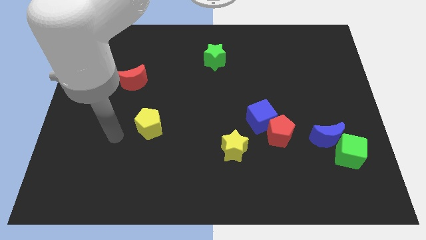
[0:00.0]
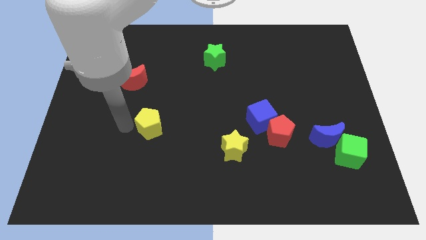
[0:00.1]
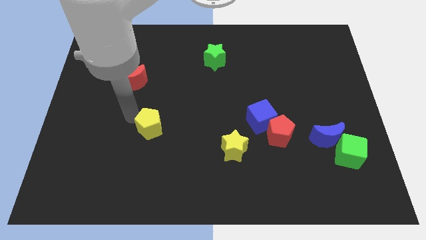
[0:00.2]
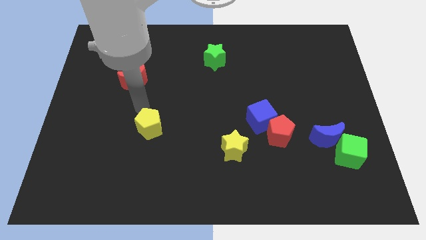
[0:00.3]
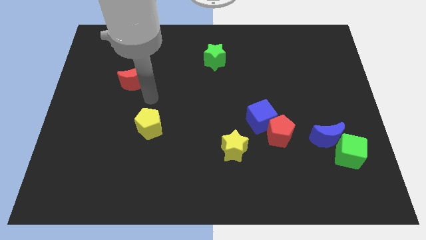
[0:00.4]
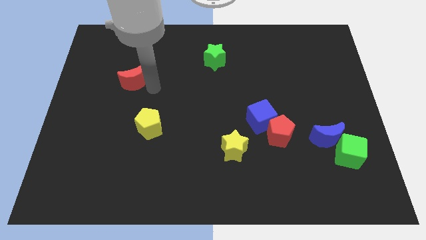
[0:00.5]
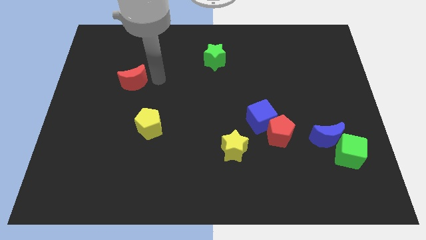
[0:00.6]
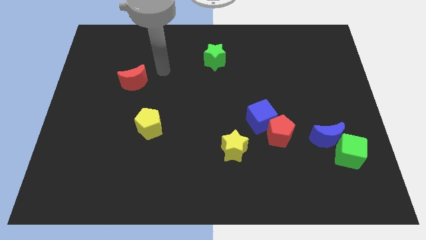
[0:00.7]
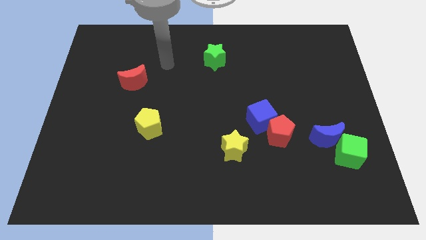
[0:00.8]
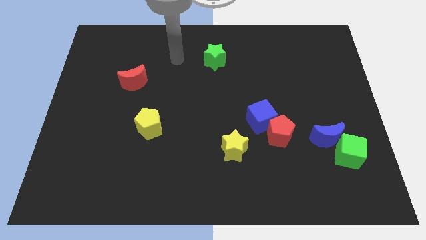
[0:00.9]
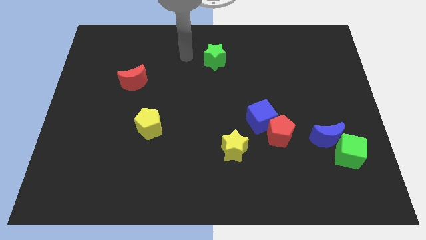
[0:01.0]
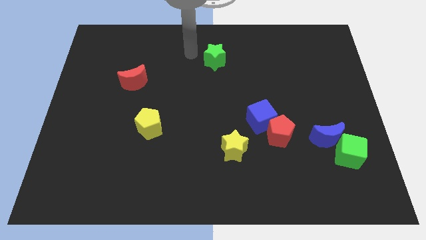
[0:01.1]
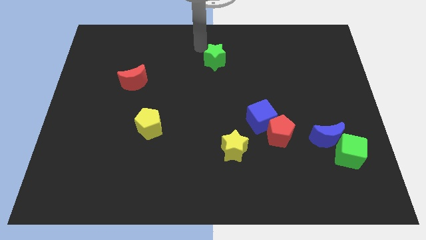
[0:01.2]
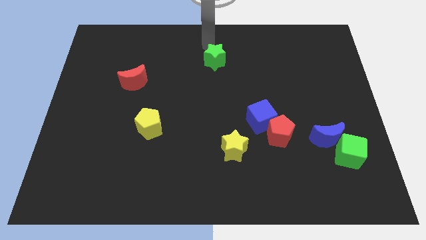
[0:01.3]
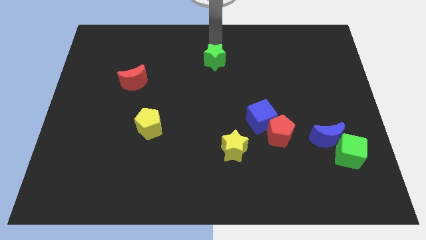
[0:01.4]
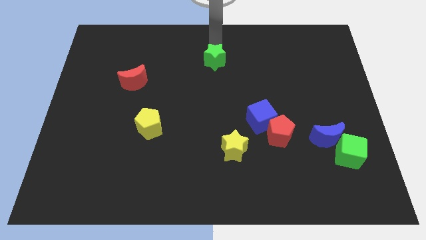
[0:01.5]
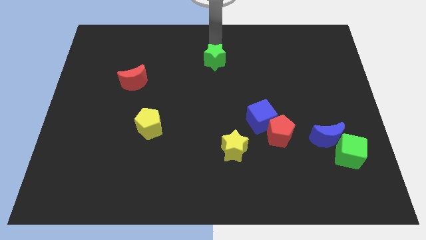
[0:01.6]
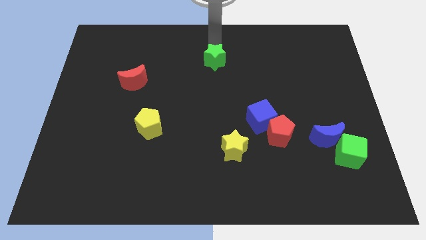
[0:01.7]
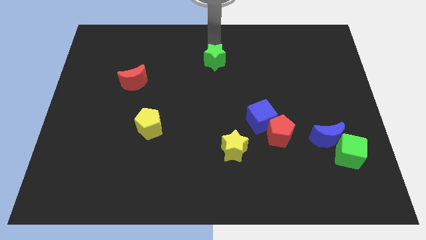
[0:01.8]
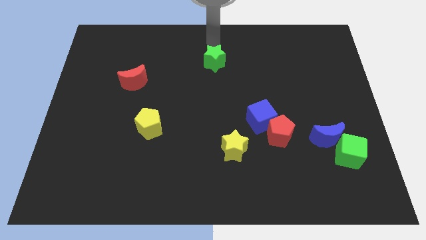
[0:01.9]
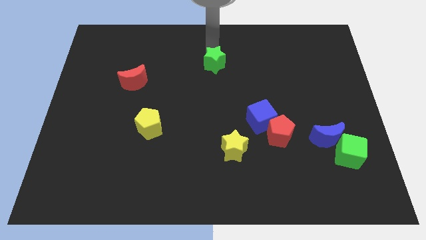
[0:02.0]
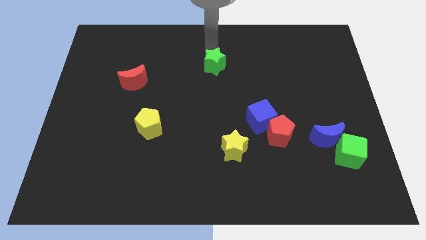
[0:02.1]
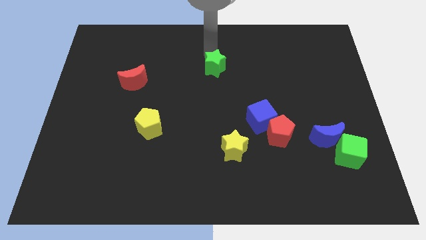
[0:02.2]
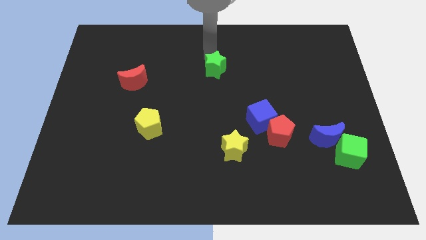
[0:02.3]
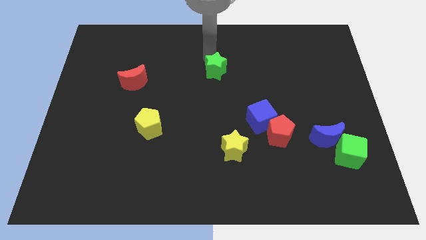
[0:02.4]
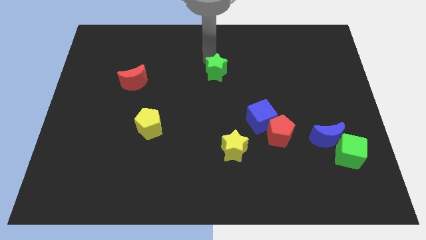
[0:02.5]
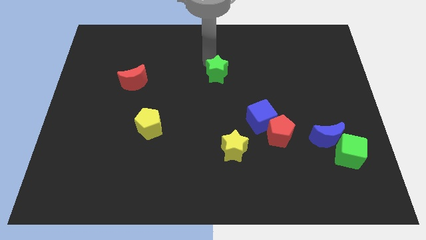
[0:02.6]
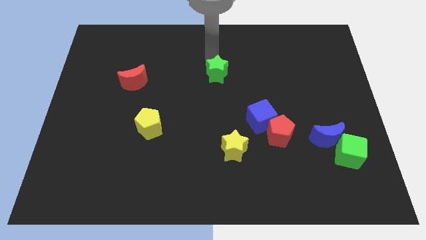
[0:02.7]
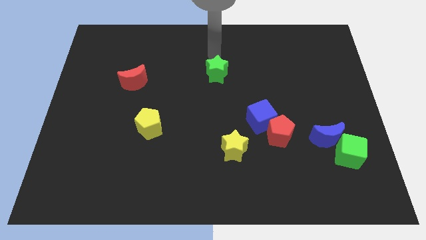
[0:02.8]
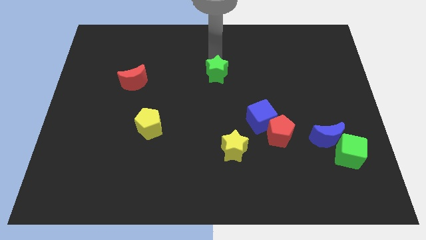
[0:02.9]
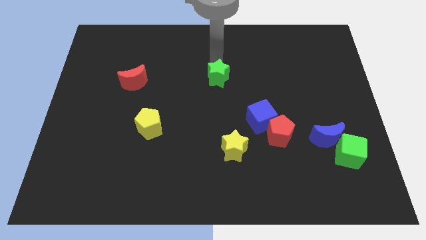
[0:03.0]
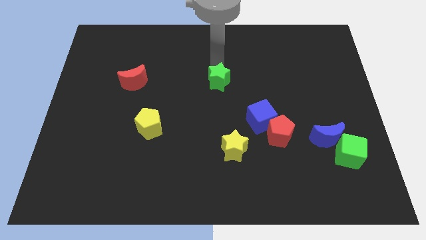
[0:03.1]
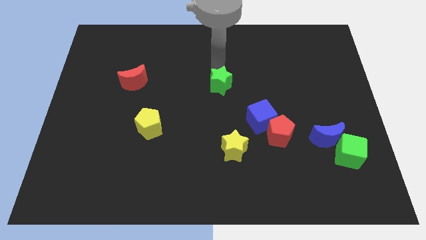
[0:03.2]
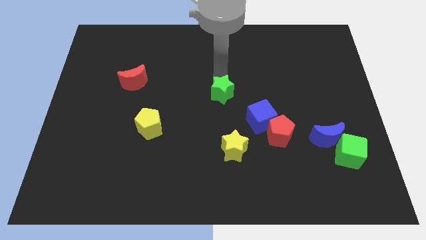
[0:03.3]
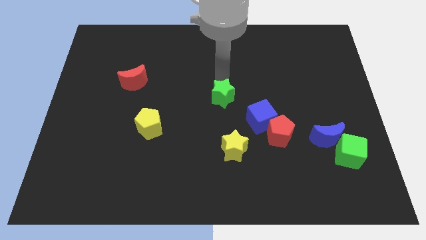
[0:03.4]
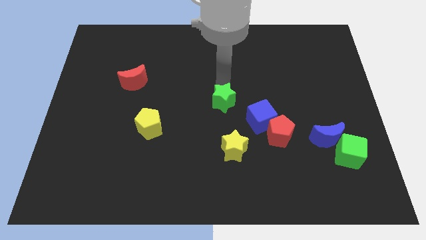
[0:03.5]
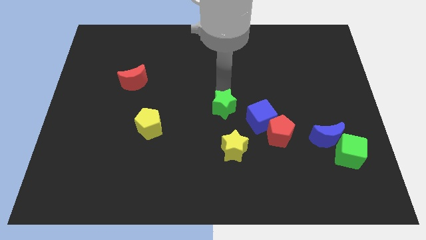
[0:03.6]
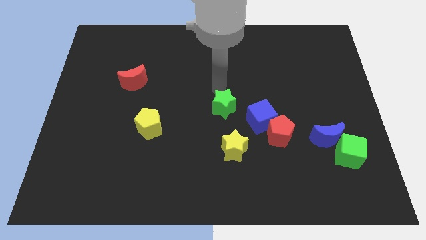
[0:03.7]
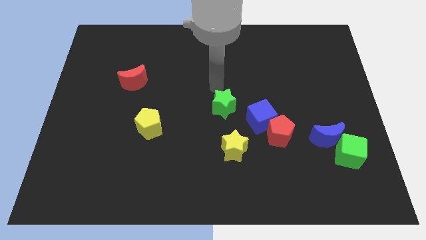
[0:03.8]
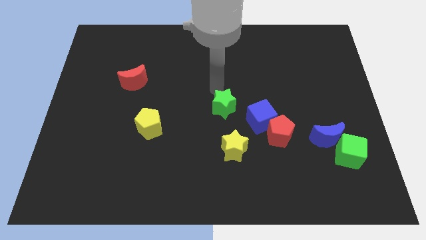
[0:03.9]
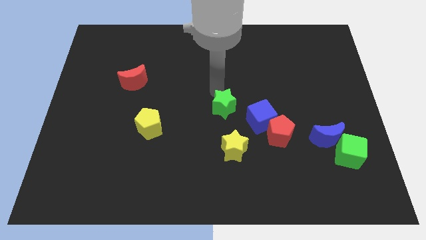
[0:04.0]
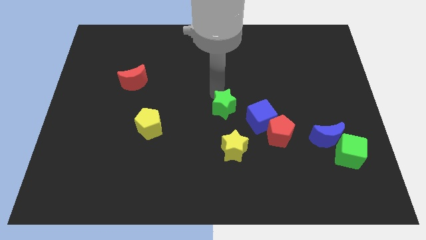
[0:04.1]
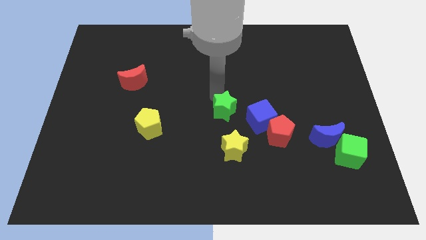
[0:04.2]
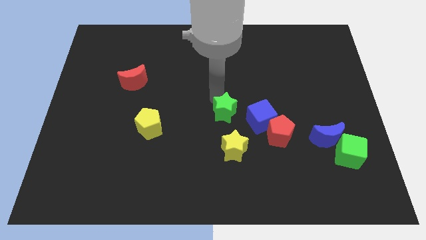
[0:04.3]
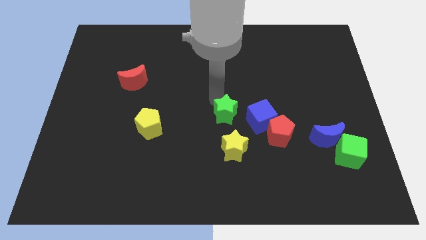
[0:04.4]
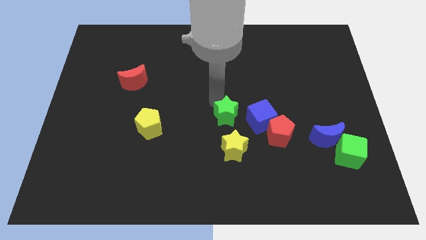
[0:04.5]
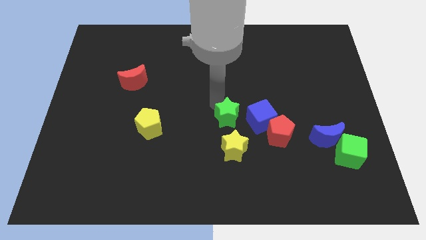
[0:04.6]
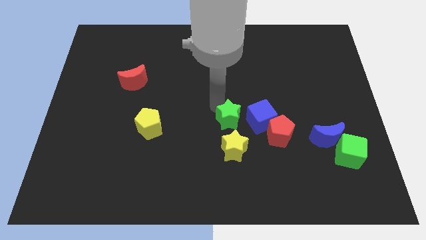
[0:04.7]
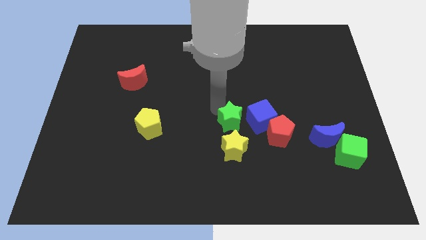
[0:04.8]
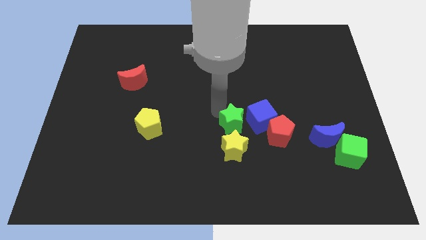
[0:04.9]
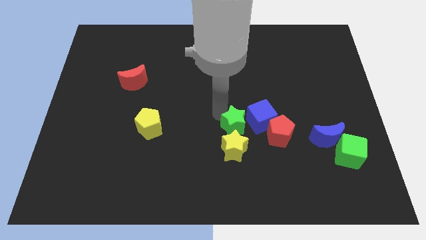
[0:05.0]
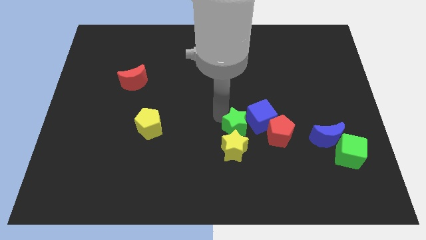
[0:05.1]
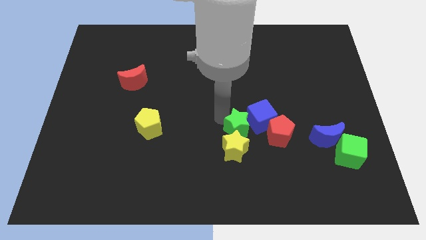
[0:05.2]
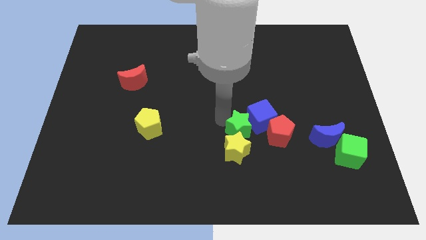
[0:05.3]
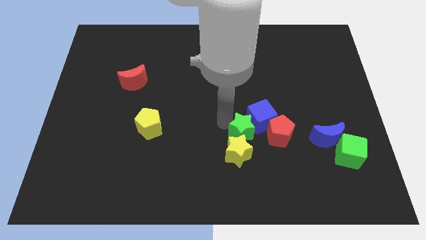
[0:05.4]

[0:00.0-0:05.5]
push the green star to the bottom of the blue cube

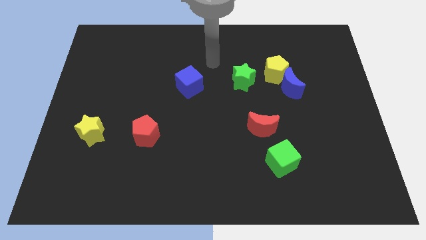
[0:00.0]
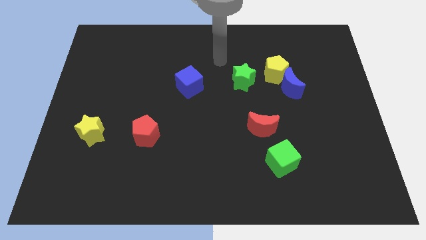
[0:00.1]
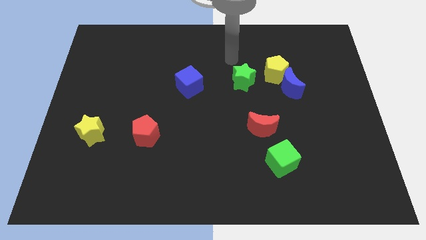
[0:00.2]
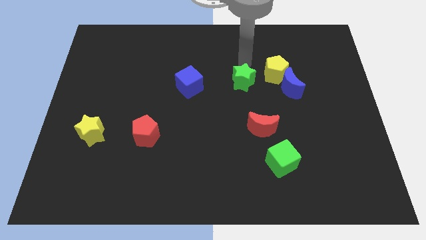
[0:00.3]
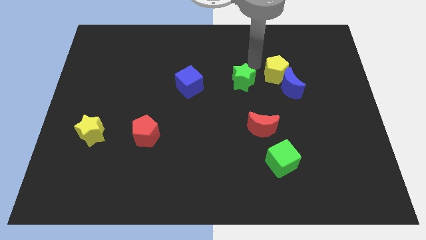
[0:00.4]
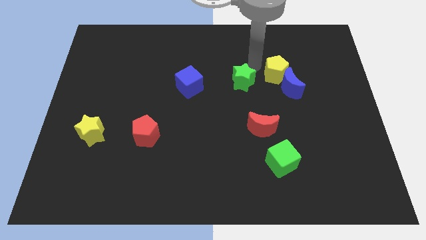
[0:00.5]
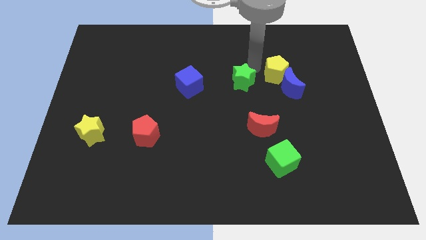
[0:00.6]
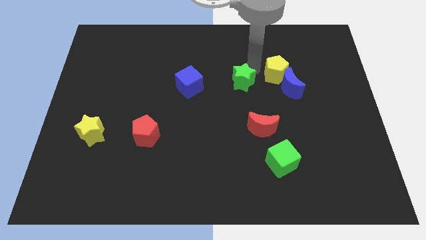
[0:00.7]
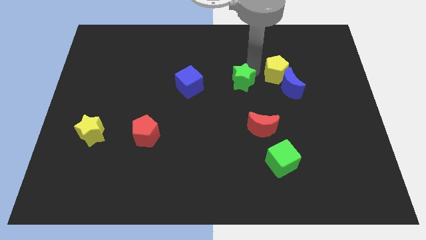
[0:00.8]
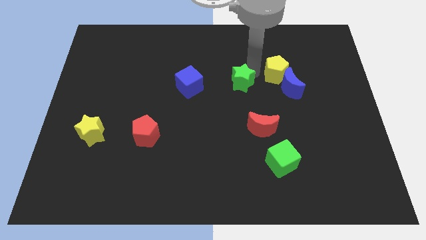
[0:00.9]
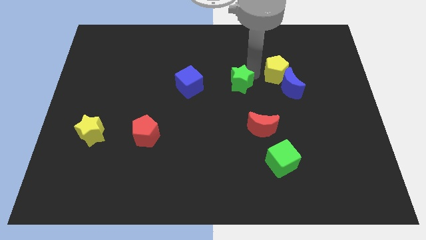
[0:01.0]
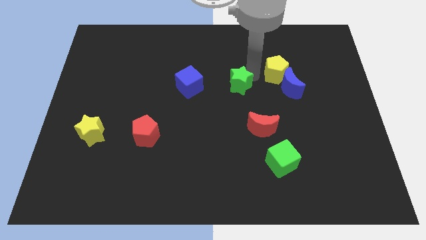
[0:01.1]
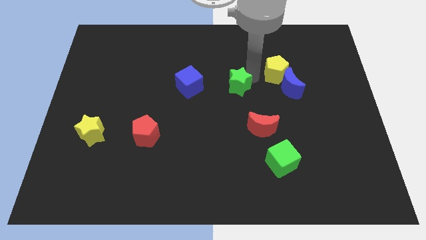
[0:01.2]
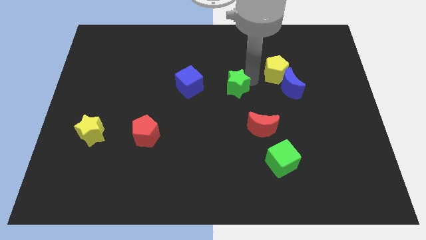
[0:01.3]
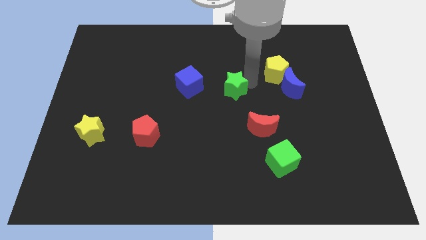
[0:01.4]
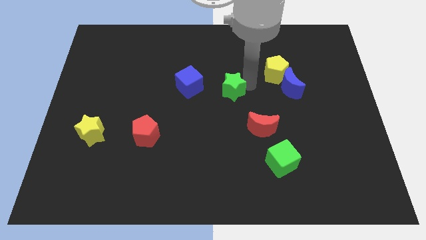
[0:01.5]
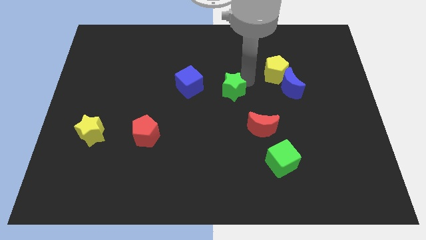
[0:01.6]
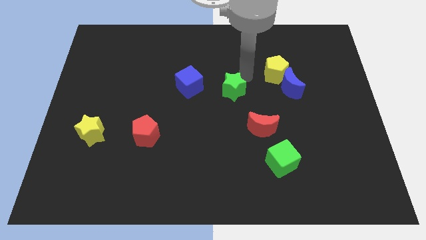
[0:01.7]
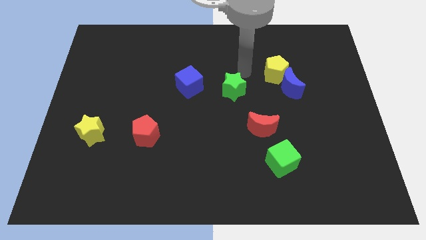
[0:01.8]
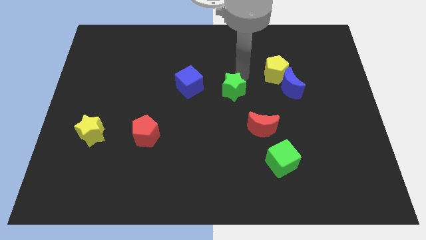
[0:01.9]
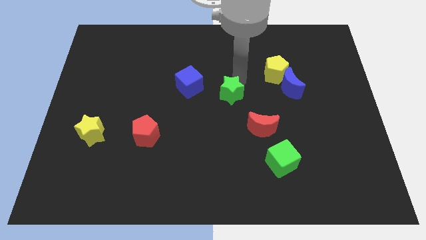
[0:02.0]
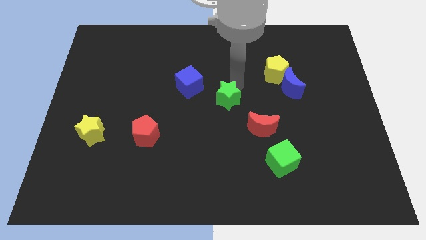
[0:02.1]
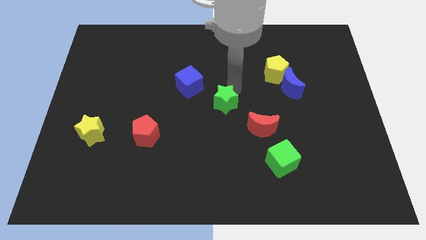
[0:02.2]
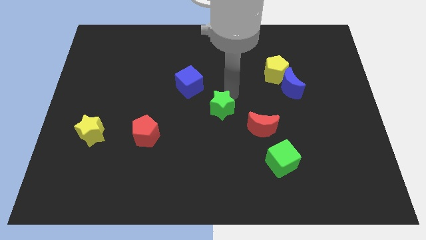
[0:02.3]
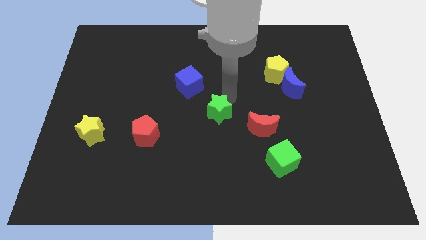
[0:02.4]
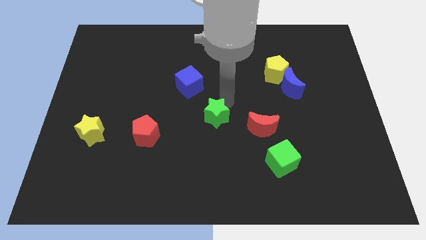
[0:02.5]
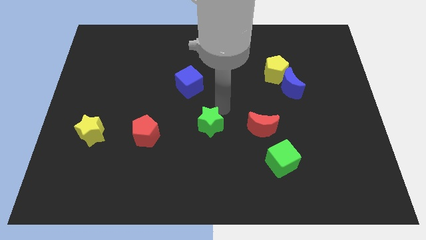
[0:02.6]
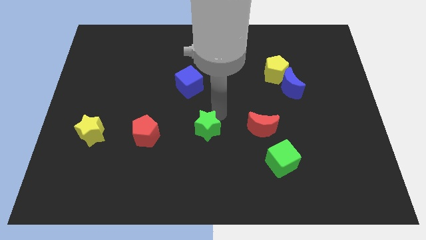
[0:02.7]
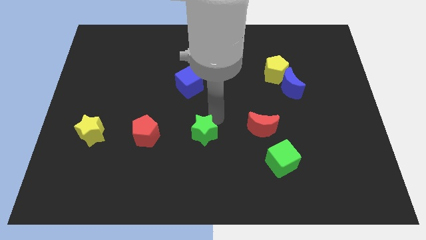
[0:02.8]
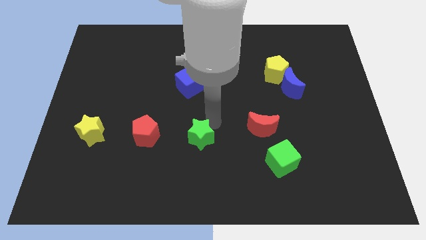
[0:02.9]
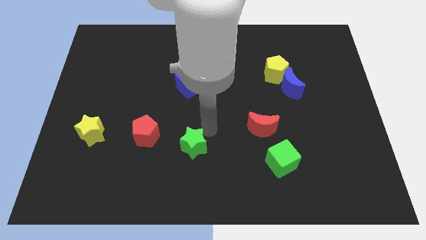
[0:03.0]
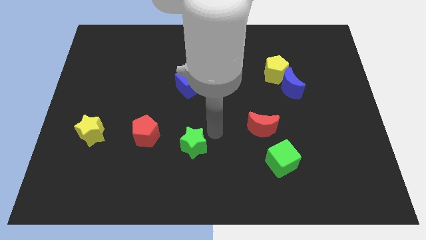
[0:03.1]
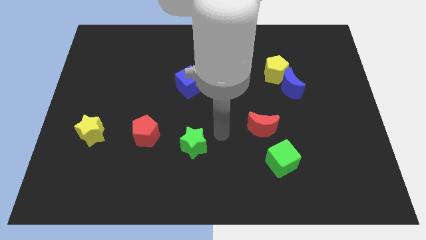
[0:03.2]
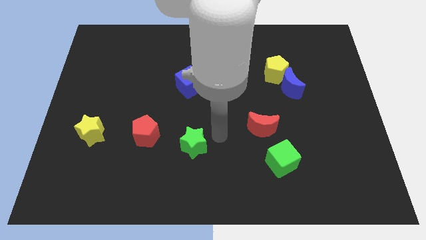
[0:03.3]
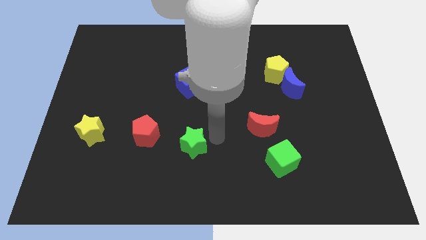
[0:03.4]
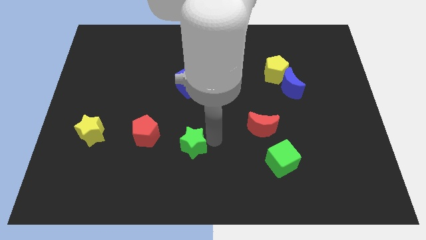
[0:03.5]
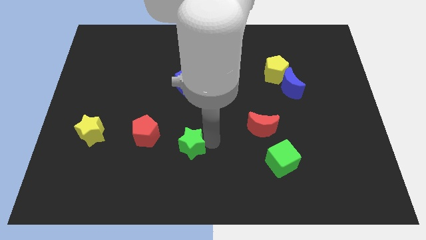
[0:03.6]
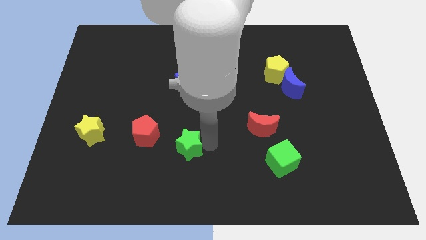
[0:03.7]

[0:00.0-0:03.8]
move the green star diagonally down and to the right of the red pentagon
